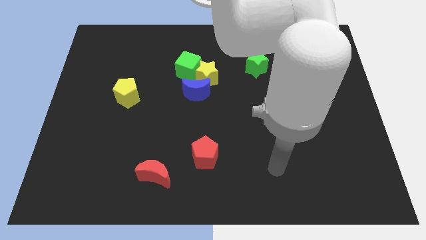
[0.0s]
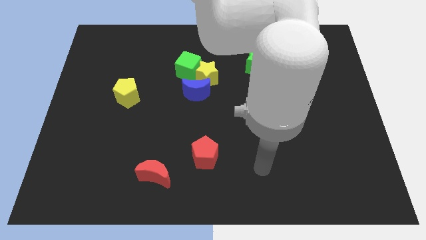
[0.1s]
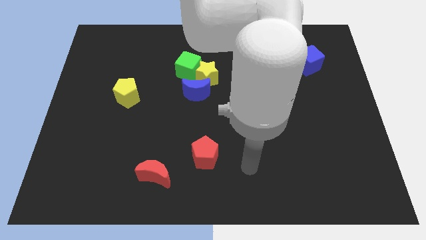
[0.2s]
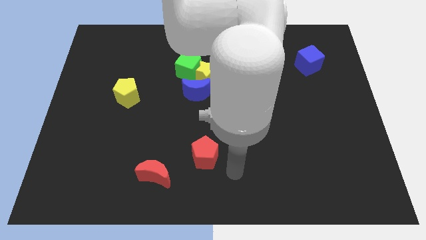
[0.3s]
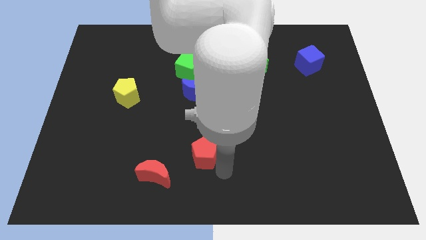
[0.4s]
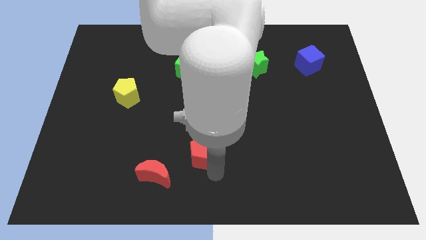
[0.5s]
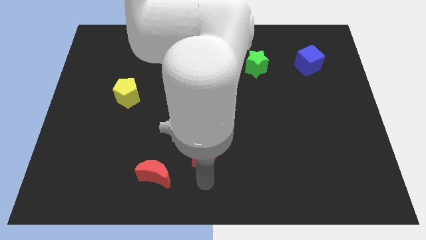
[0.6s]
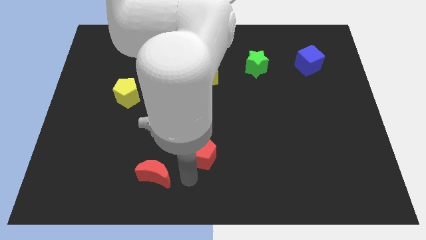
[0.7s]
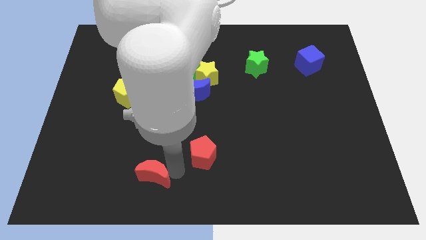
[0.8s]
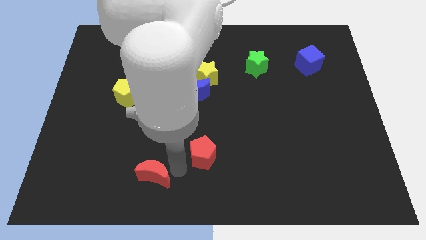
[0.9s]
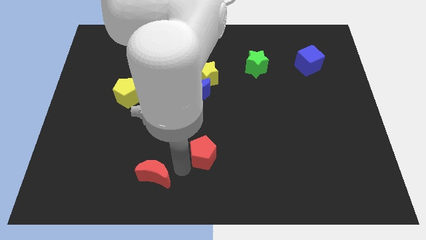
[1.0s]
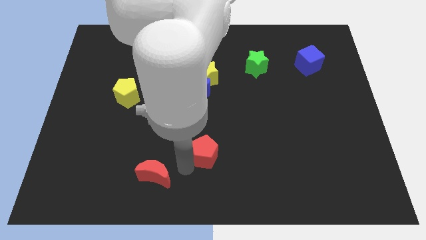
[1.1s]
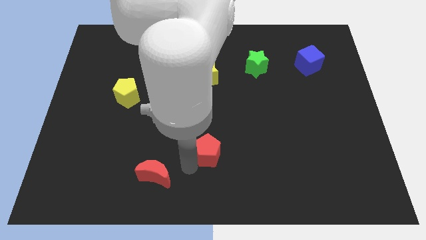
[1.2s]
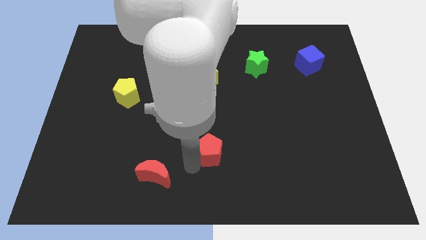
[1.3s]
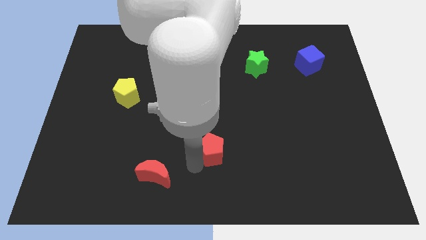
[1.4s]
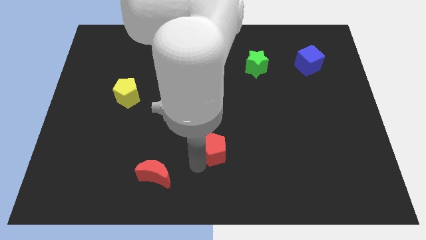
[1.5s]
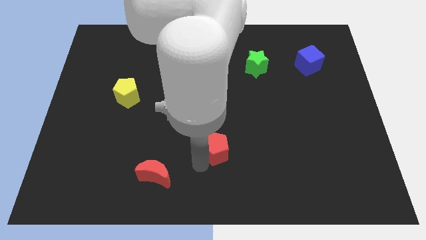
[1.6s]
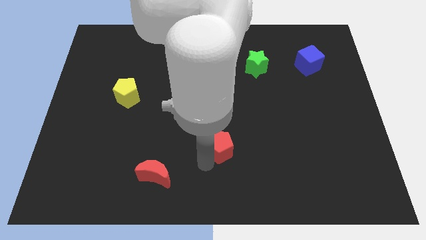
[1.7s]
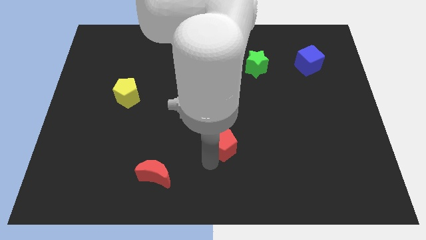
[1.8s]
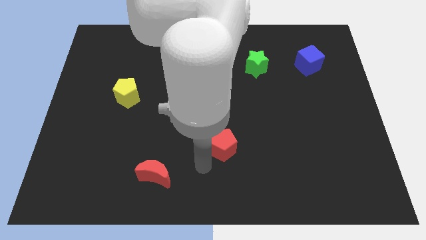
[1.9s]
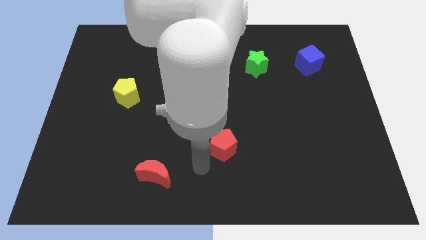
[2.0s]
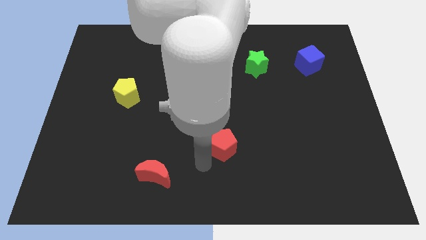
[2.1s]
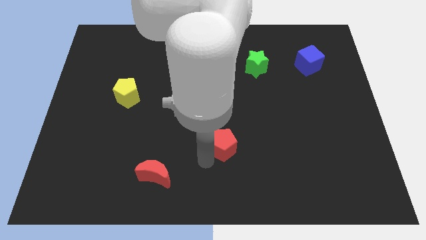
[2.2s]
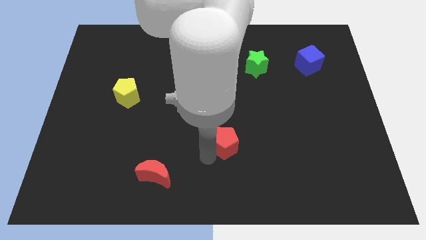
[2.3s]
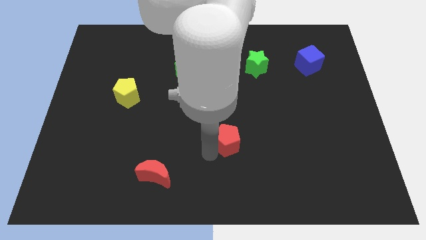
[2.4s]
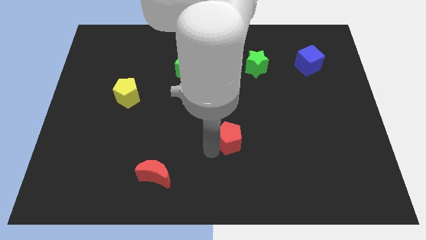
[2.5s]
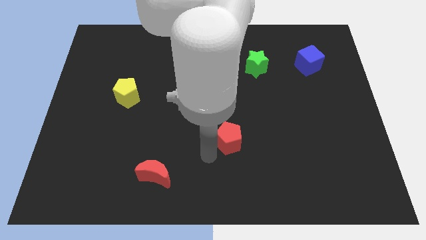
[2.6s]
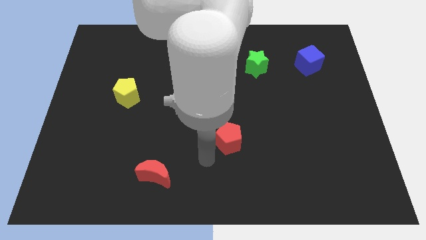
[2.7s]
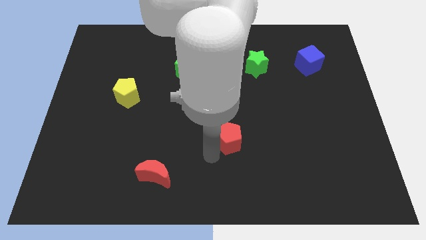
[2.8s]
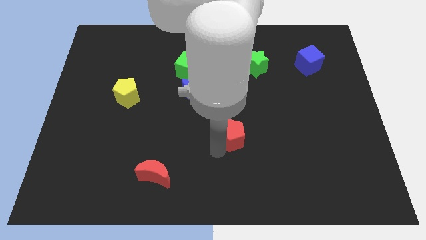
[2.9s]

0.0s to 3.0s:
slide the red pentagon a bit up and to the right diagonally

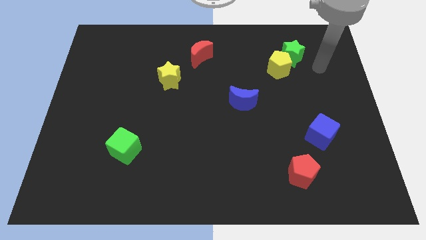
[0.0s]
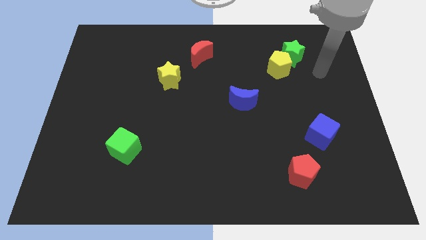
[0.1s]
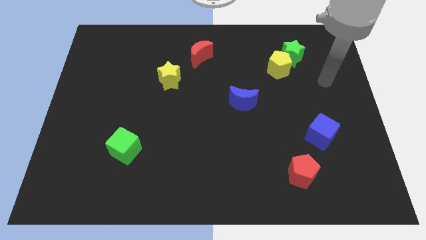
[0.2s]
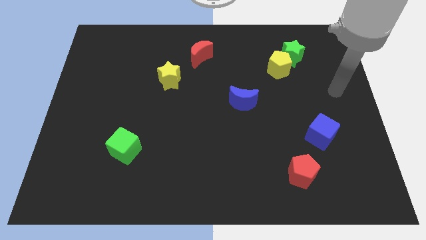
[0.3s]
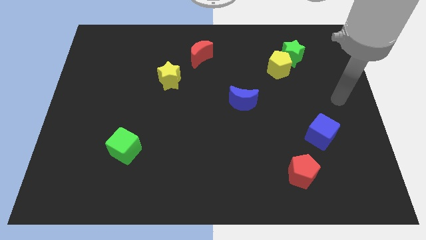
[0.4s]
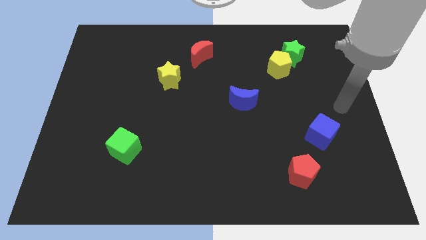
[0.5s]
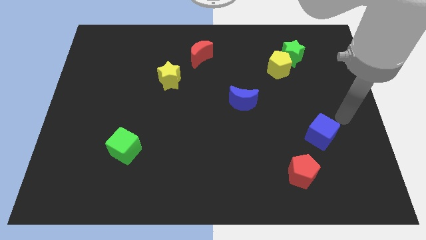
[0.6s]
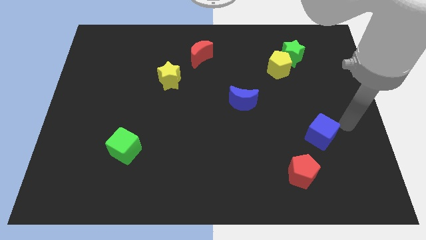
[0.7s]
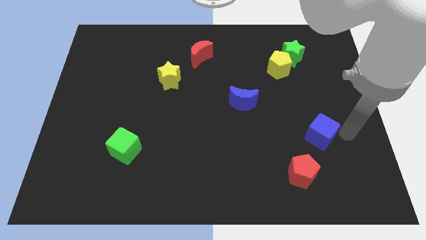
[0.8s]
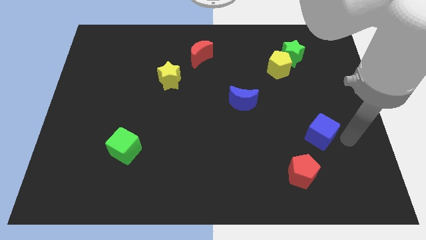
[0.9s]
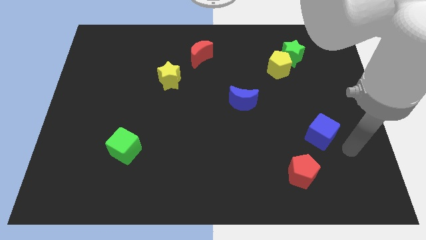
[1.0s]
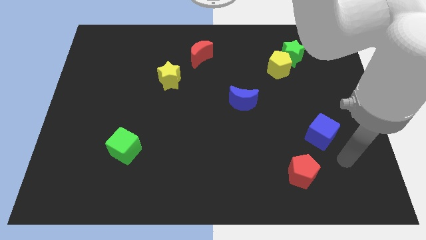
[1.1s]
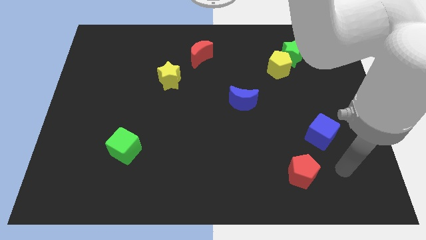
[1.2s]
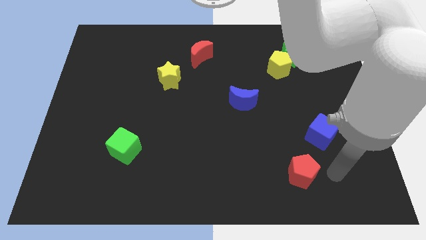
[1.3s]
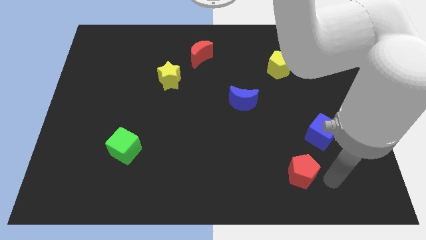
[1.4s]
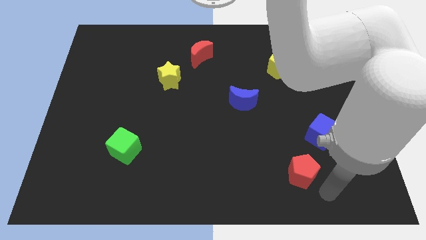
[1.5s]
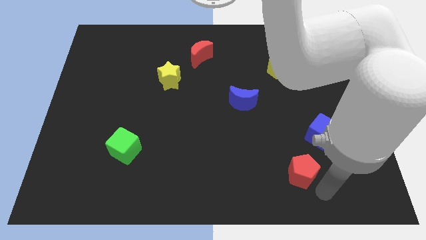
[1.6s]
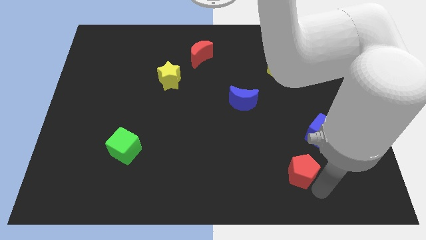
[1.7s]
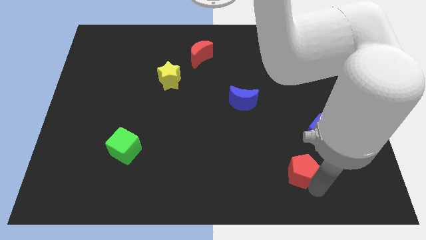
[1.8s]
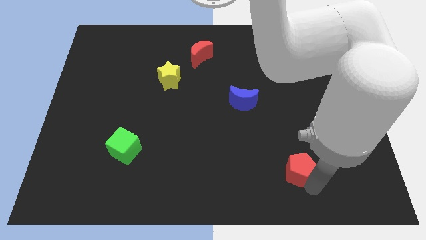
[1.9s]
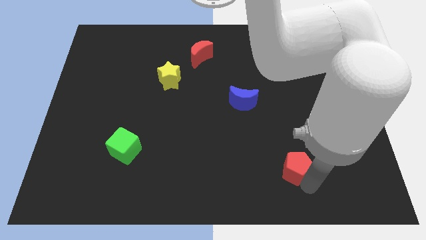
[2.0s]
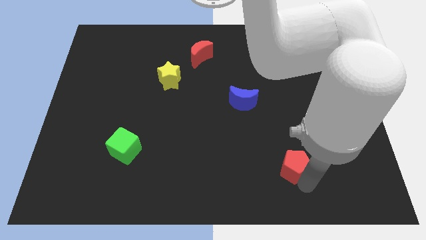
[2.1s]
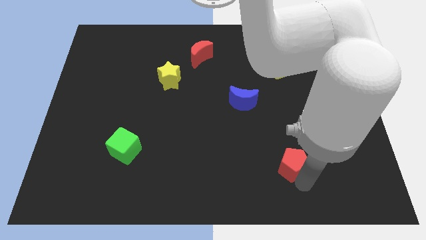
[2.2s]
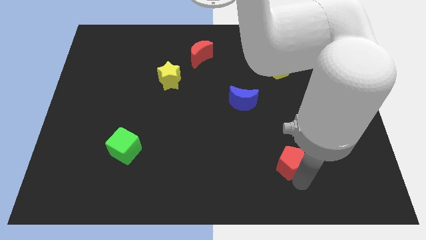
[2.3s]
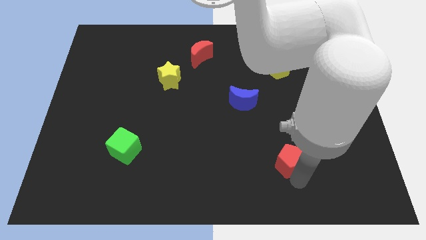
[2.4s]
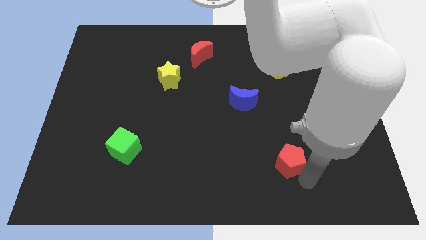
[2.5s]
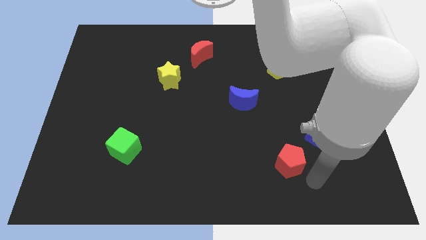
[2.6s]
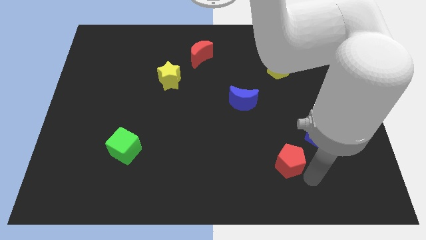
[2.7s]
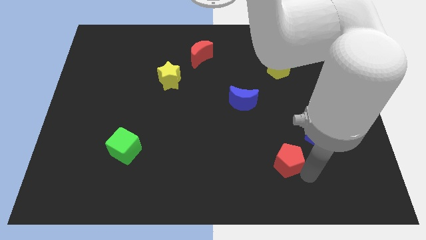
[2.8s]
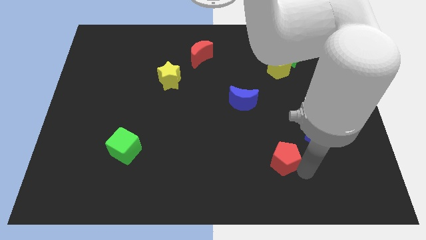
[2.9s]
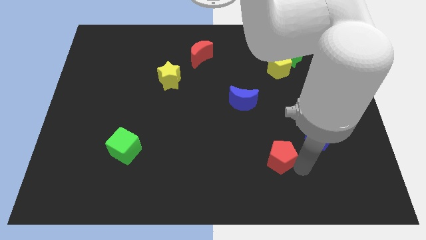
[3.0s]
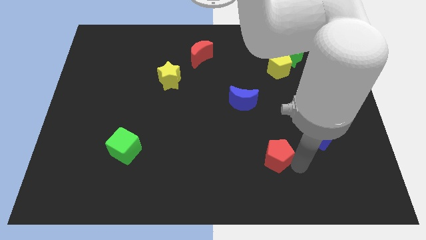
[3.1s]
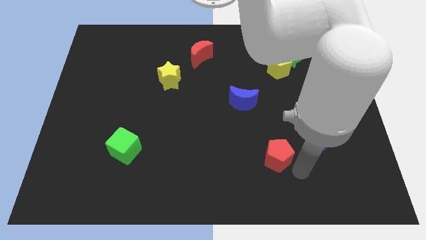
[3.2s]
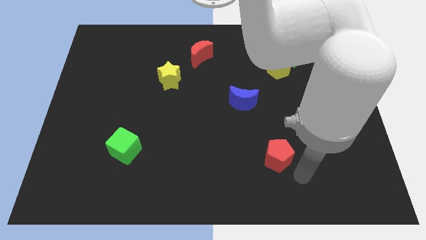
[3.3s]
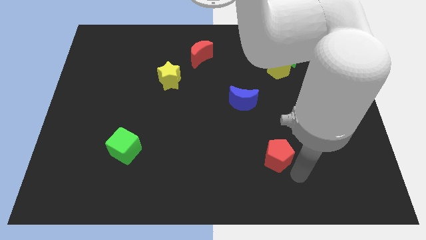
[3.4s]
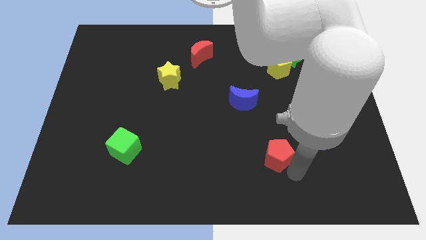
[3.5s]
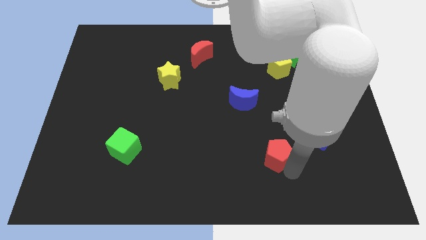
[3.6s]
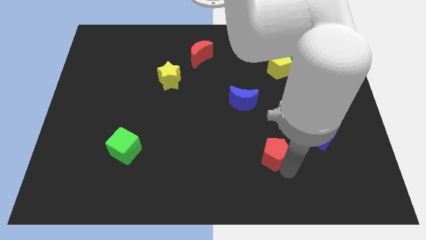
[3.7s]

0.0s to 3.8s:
slightly move the red pentagon up and left

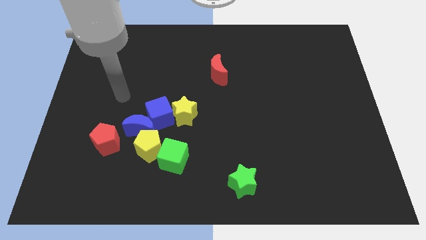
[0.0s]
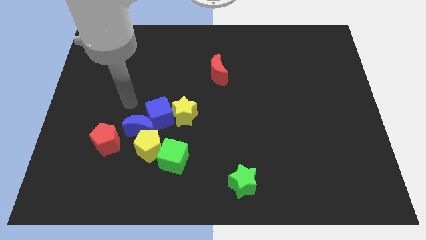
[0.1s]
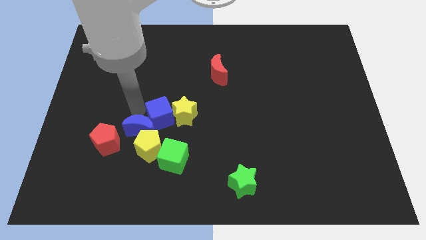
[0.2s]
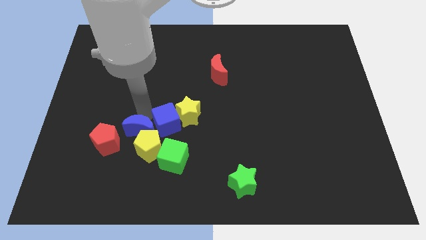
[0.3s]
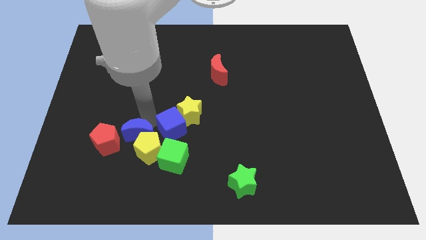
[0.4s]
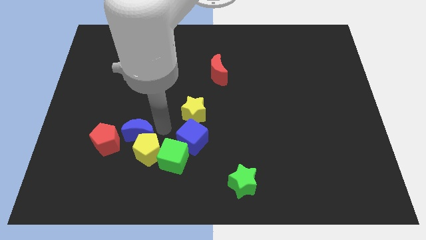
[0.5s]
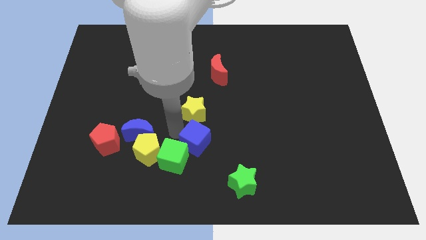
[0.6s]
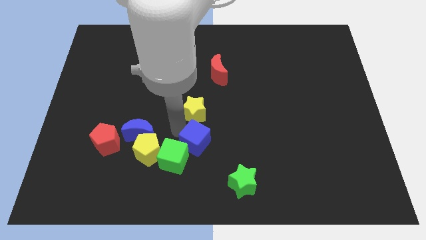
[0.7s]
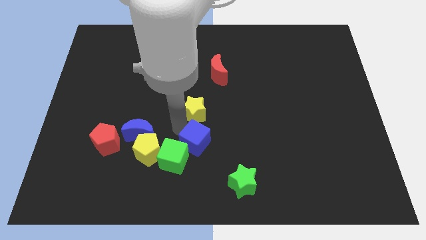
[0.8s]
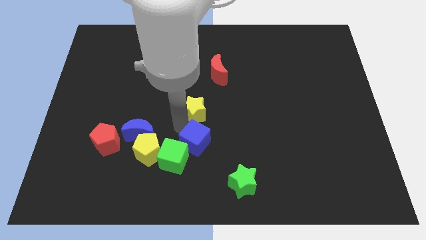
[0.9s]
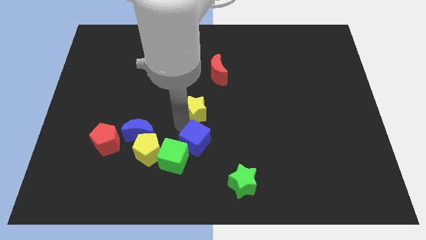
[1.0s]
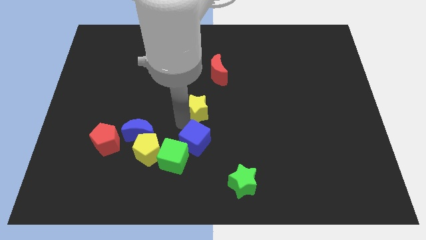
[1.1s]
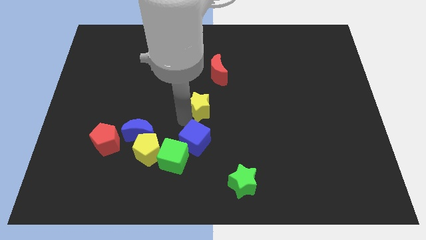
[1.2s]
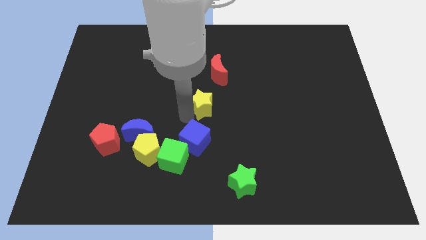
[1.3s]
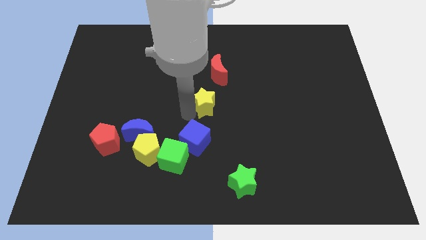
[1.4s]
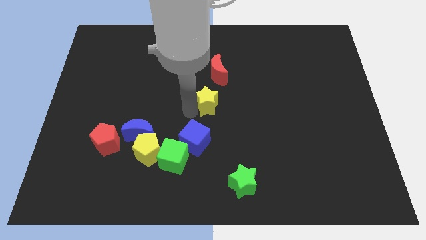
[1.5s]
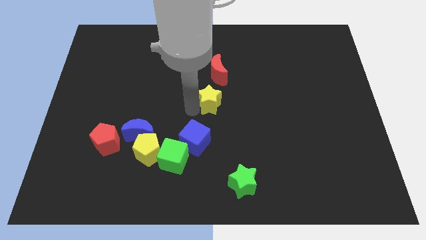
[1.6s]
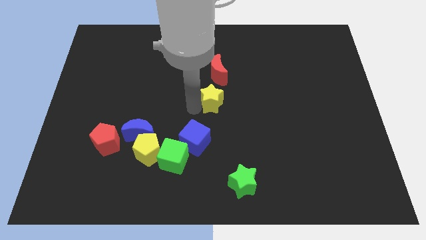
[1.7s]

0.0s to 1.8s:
move the yellow star somewhat diagonally up and right
